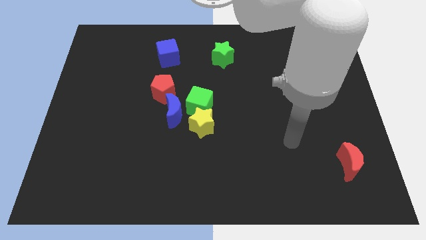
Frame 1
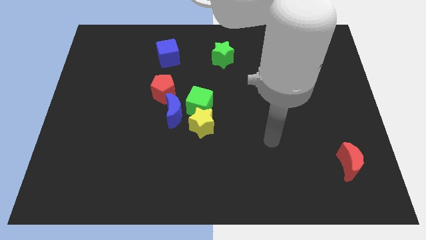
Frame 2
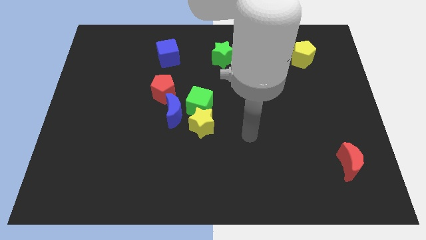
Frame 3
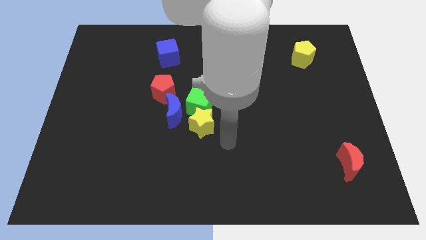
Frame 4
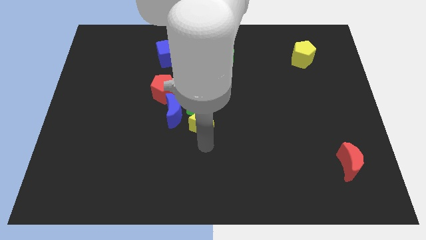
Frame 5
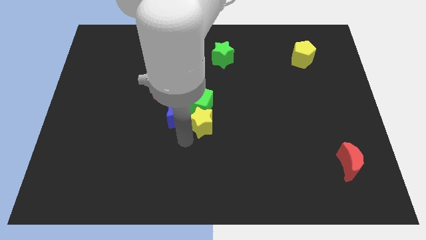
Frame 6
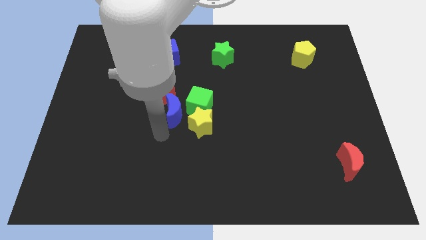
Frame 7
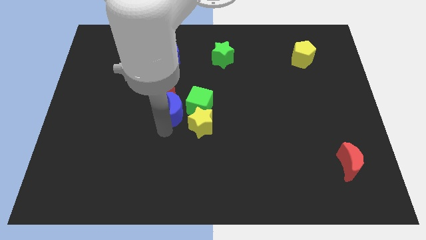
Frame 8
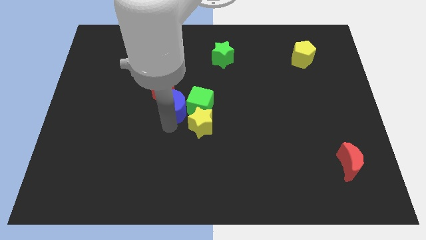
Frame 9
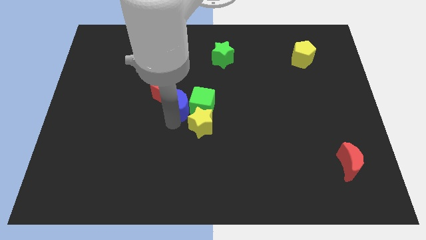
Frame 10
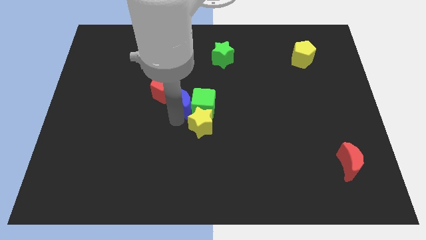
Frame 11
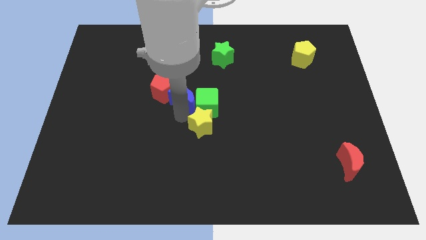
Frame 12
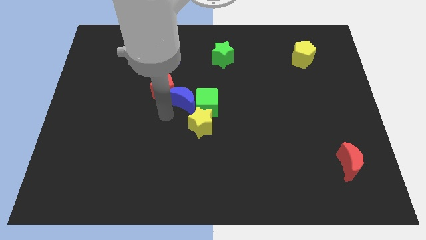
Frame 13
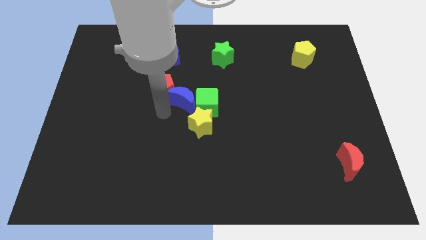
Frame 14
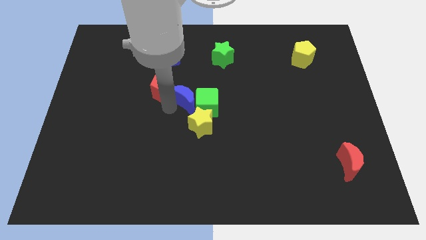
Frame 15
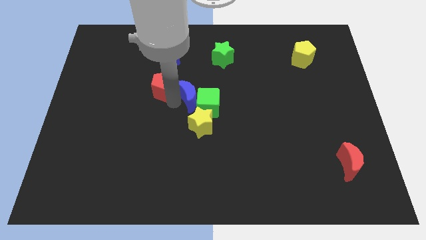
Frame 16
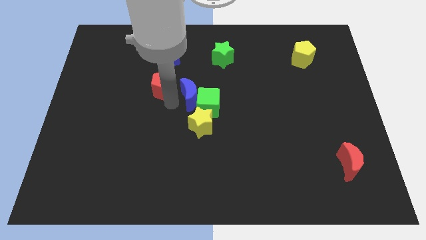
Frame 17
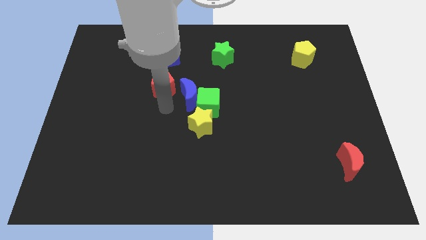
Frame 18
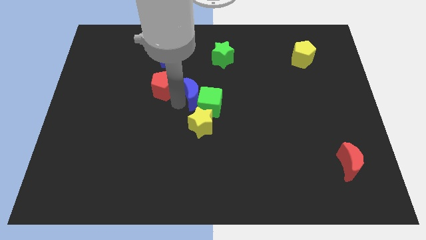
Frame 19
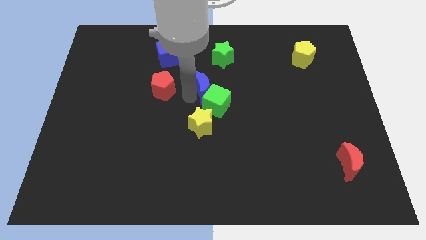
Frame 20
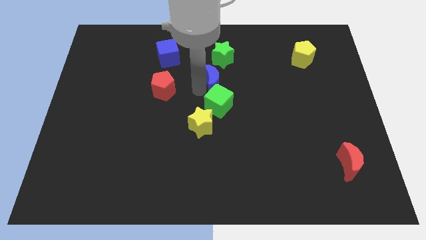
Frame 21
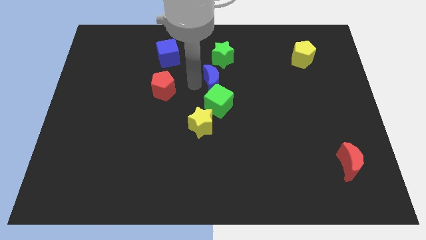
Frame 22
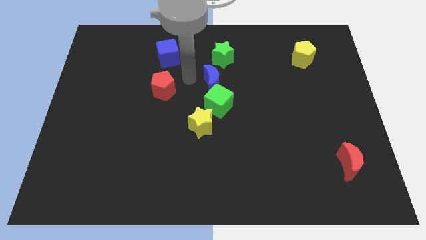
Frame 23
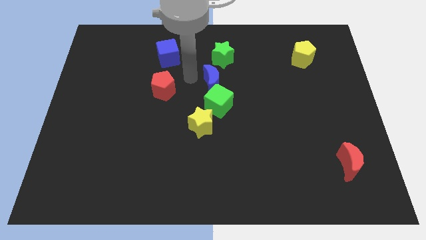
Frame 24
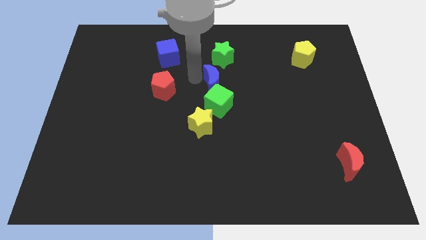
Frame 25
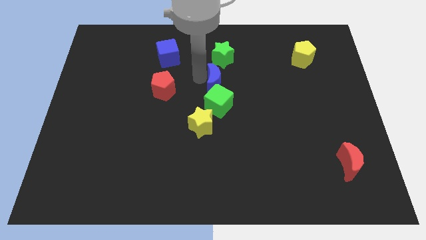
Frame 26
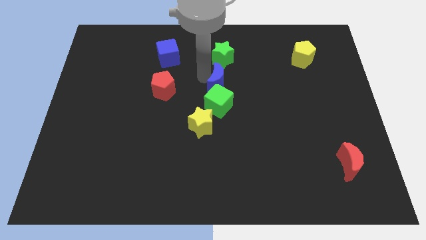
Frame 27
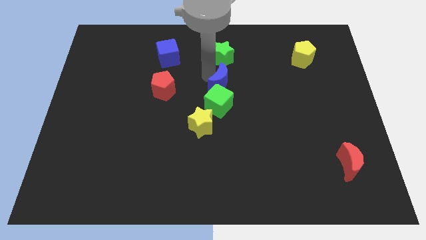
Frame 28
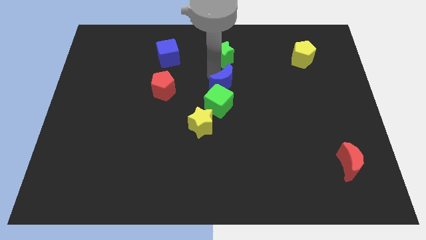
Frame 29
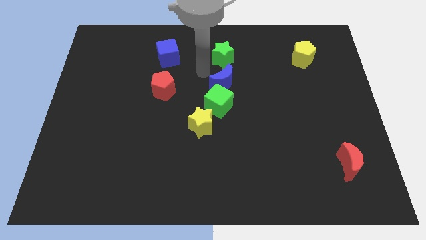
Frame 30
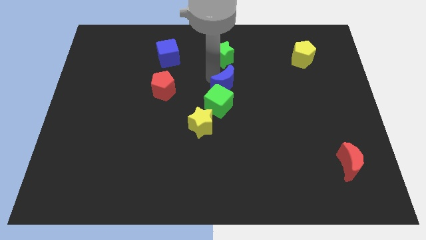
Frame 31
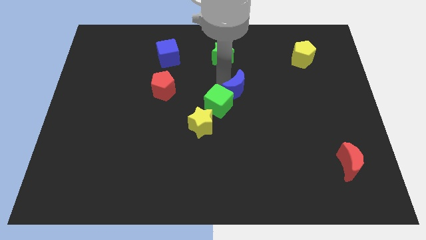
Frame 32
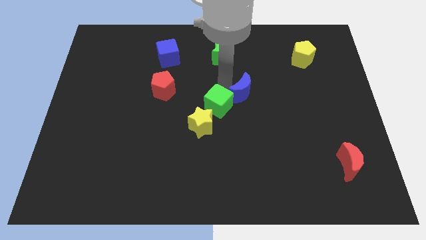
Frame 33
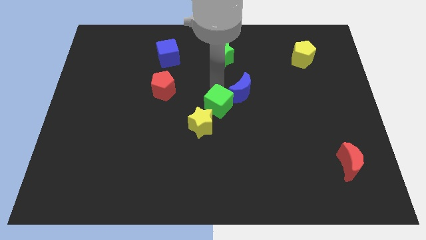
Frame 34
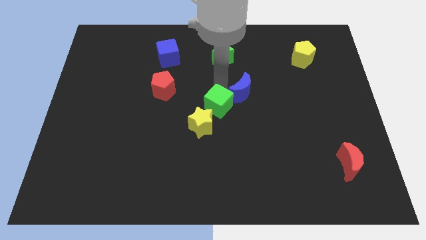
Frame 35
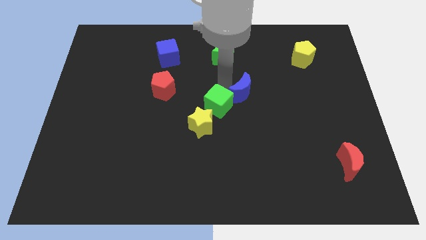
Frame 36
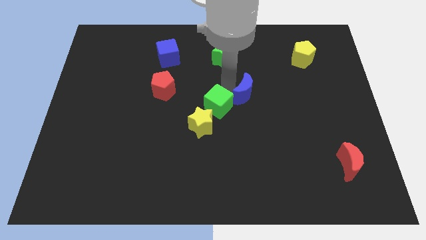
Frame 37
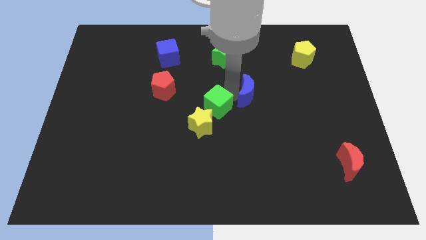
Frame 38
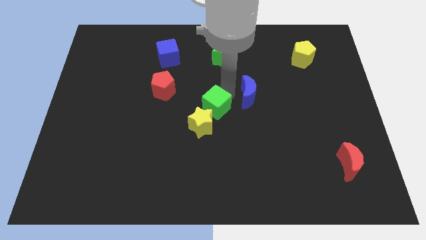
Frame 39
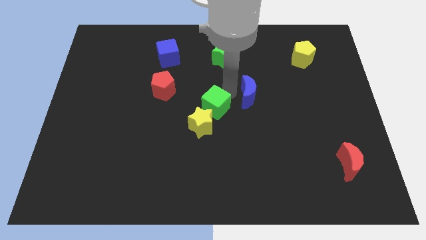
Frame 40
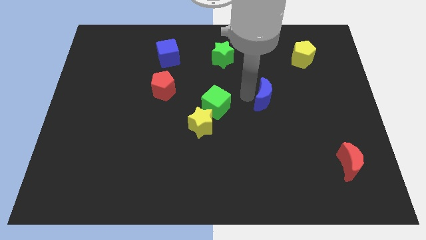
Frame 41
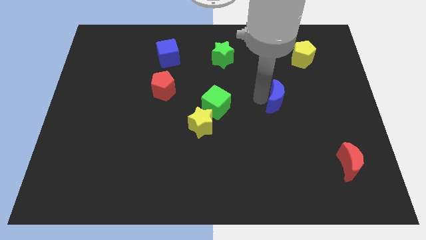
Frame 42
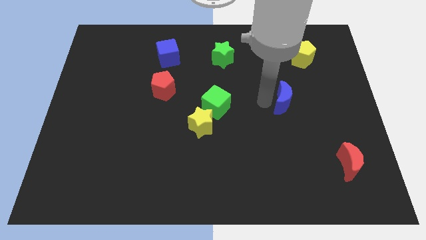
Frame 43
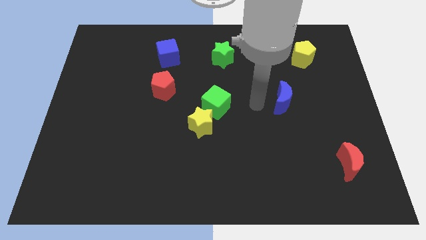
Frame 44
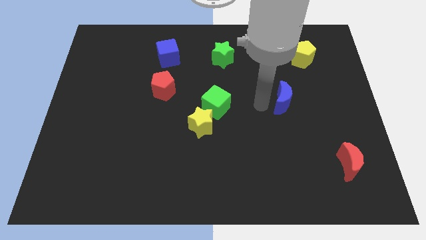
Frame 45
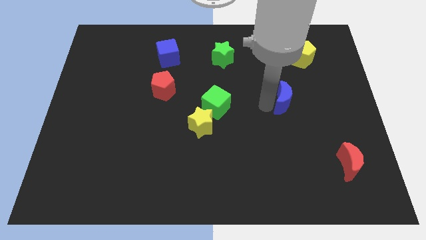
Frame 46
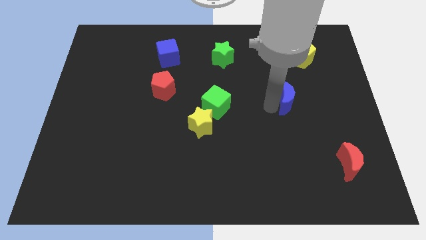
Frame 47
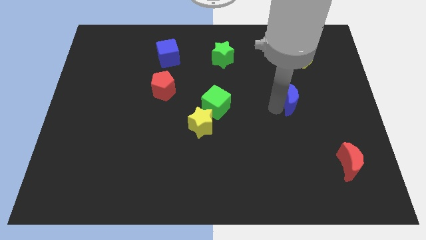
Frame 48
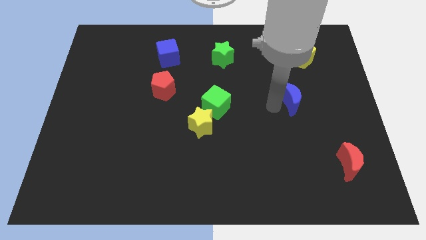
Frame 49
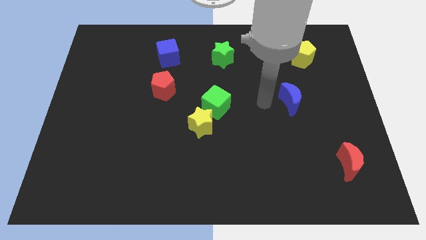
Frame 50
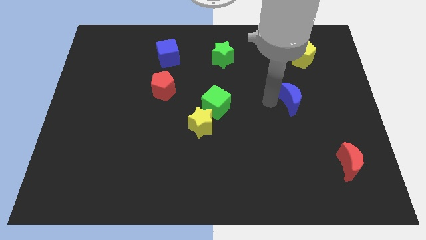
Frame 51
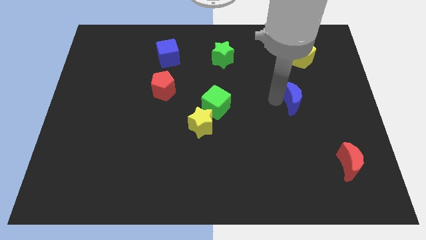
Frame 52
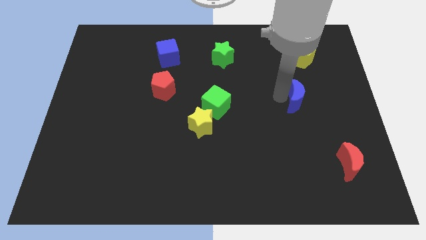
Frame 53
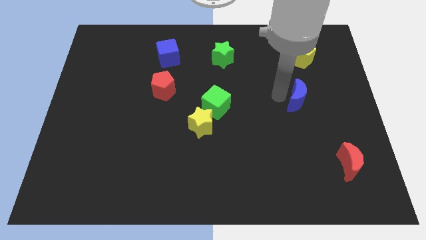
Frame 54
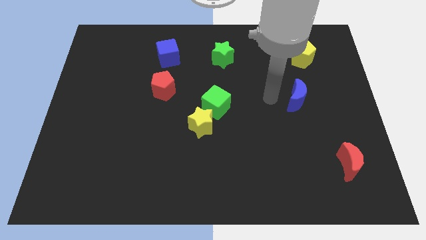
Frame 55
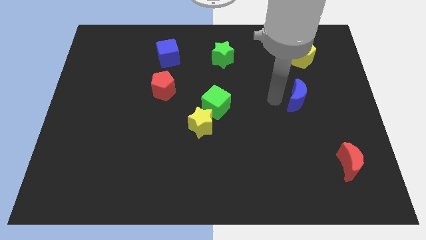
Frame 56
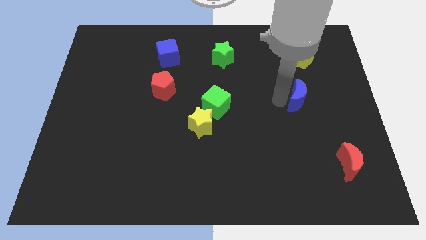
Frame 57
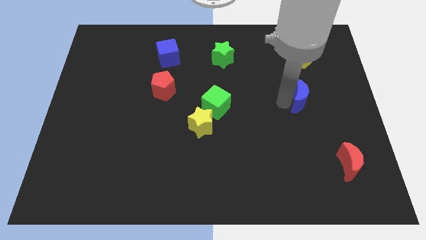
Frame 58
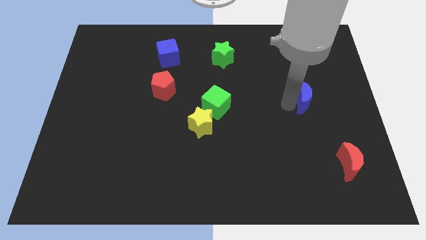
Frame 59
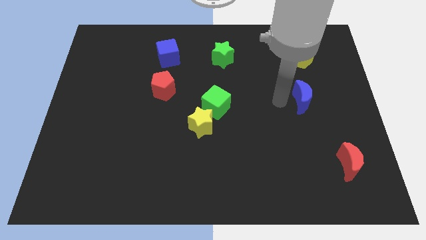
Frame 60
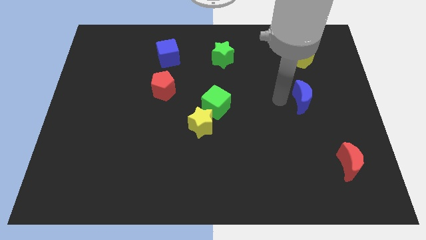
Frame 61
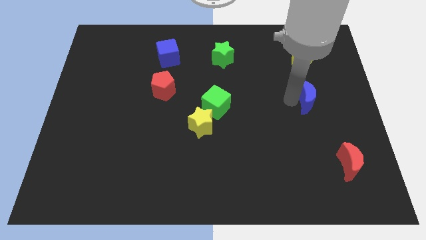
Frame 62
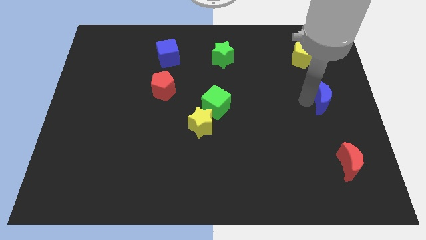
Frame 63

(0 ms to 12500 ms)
put the blue moon to the right side of the board

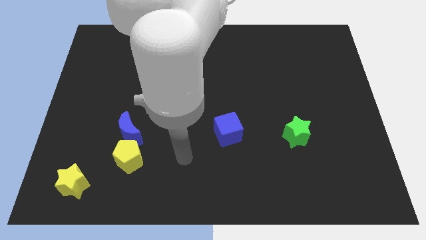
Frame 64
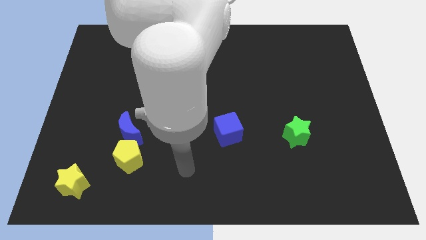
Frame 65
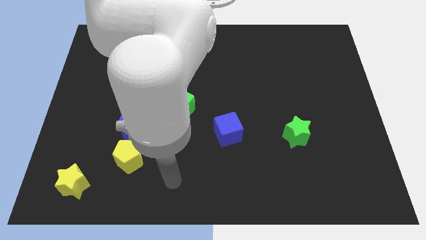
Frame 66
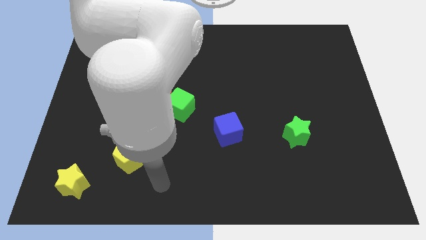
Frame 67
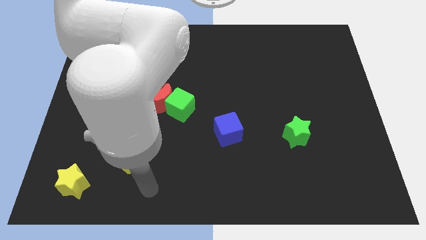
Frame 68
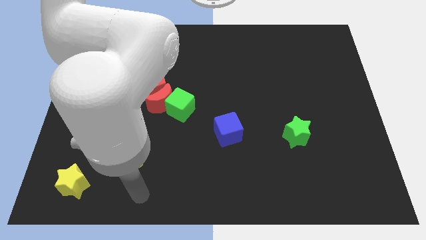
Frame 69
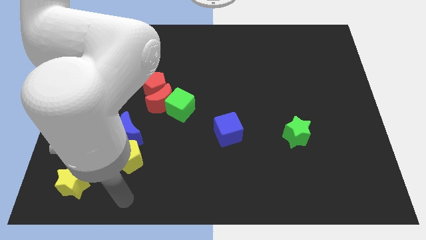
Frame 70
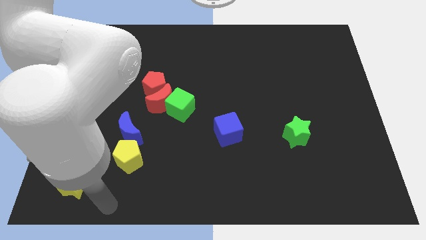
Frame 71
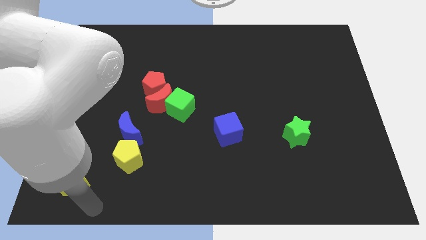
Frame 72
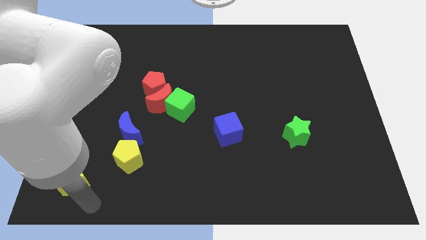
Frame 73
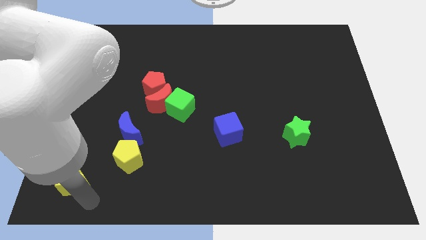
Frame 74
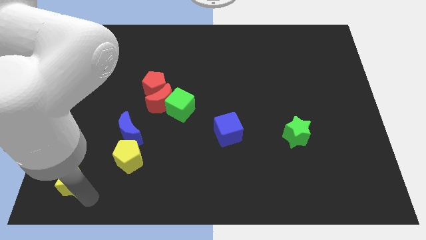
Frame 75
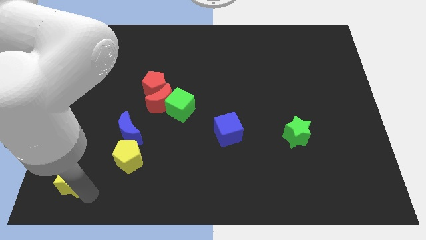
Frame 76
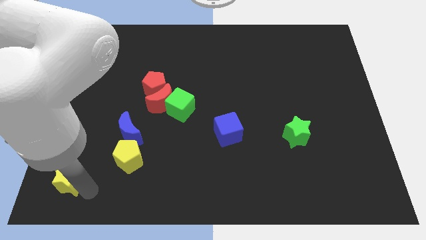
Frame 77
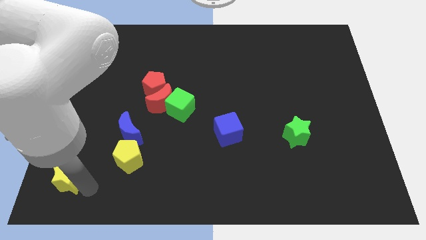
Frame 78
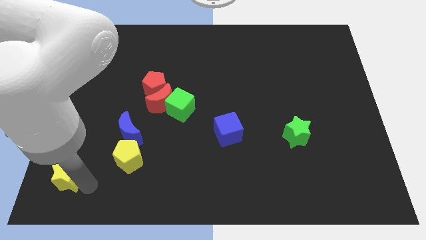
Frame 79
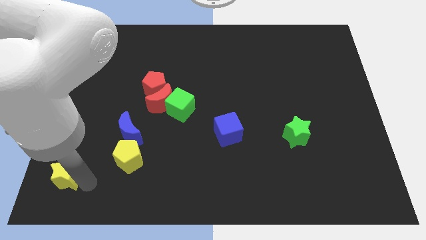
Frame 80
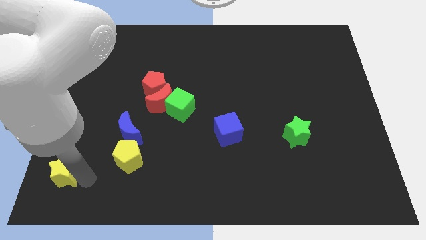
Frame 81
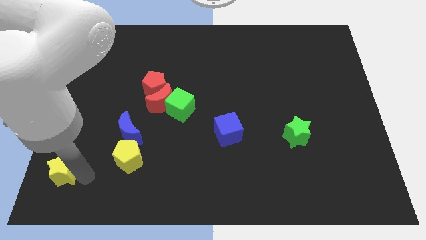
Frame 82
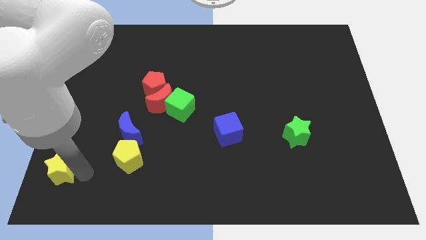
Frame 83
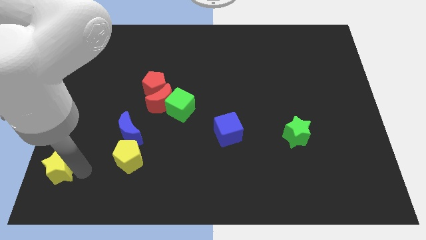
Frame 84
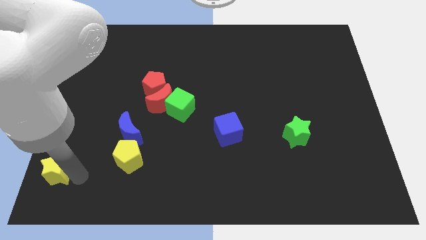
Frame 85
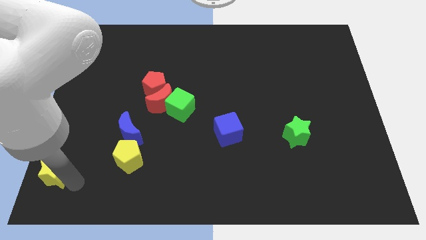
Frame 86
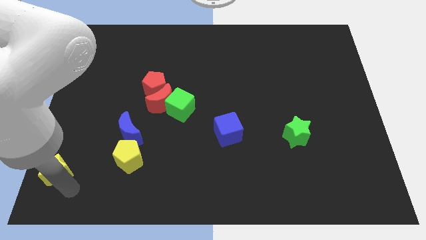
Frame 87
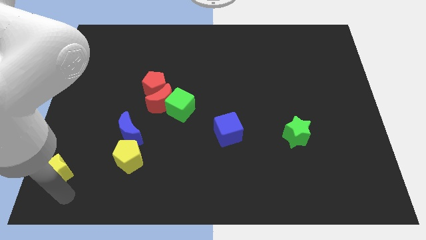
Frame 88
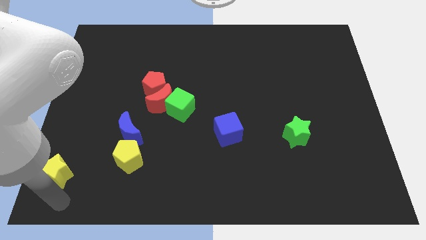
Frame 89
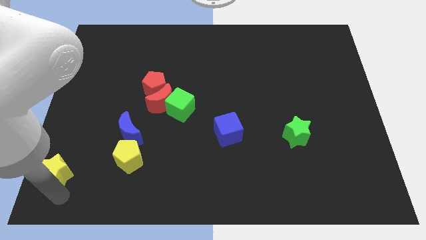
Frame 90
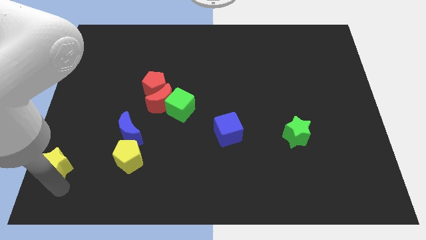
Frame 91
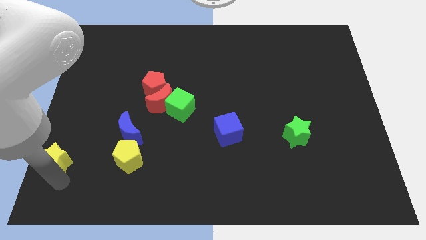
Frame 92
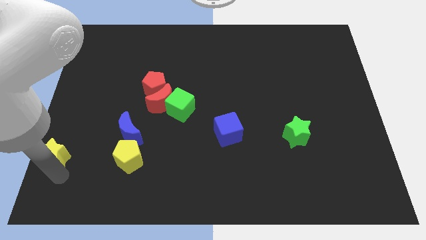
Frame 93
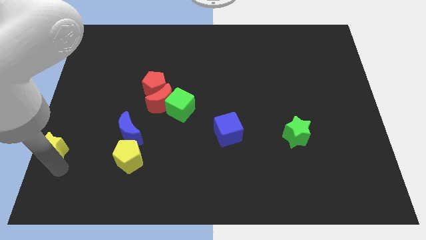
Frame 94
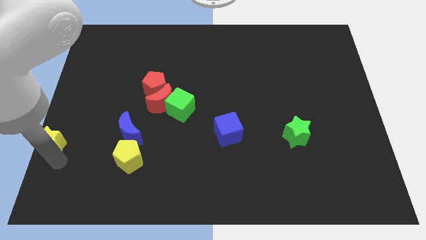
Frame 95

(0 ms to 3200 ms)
push the yellow star to the left side
